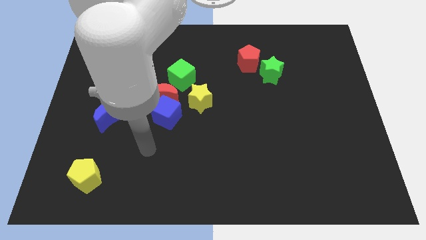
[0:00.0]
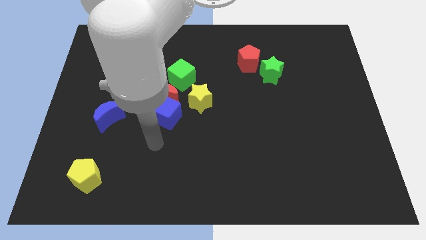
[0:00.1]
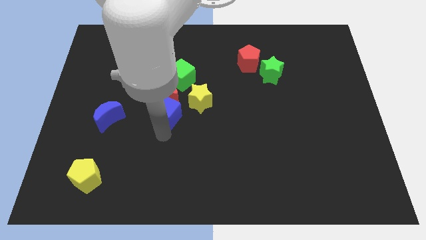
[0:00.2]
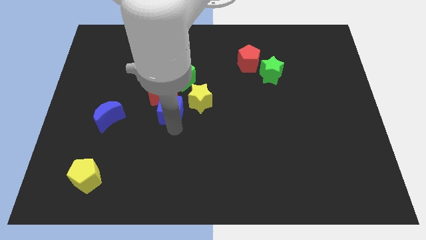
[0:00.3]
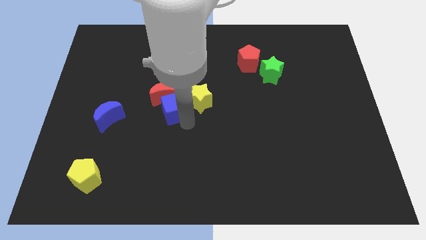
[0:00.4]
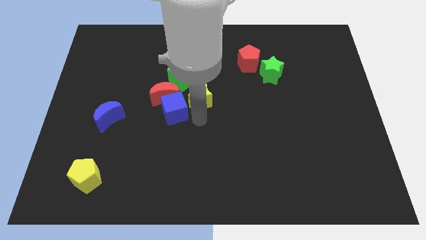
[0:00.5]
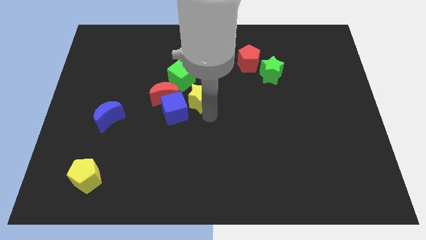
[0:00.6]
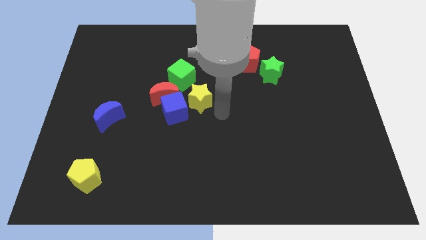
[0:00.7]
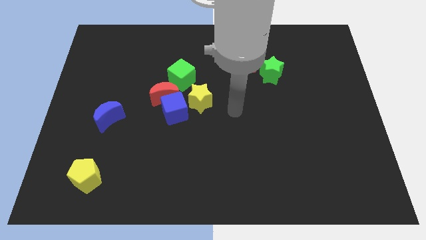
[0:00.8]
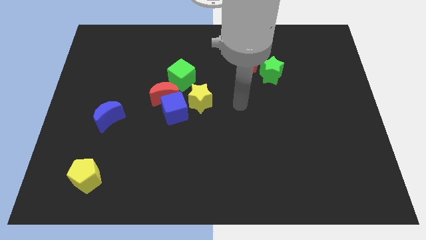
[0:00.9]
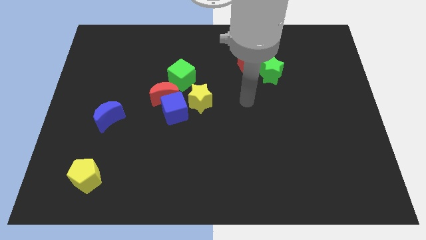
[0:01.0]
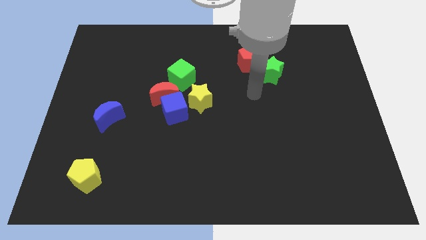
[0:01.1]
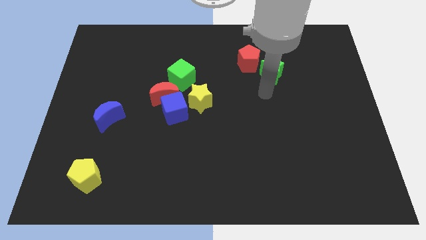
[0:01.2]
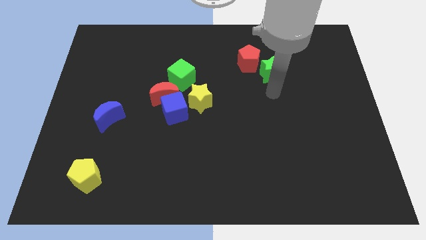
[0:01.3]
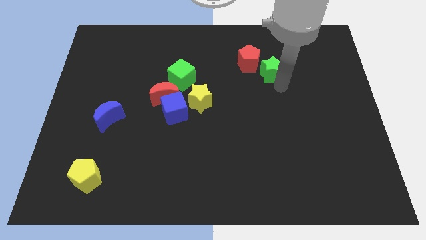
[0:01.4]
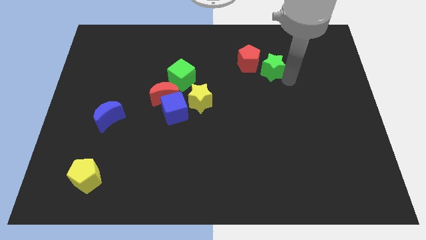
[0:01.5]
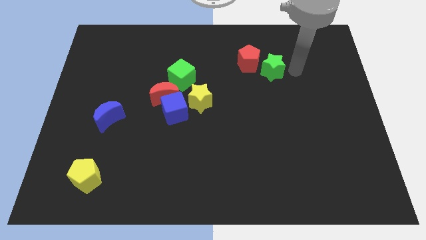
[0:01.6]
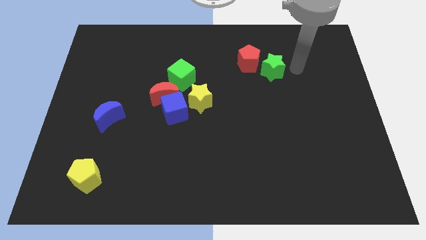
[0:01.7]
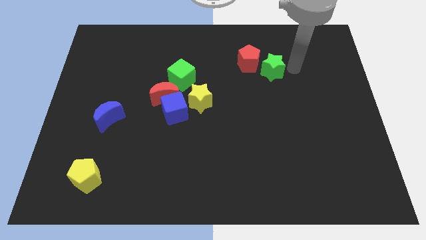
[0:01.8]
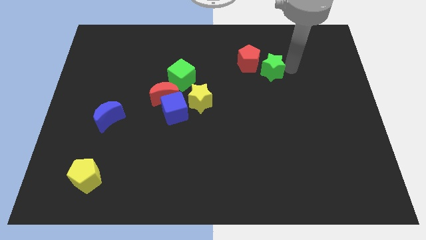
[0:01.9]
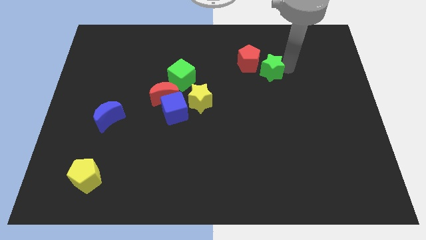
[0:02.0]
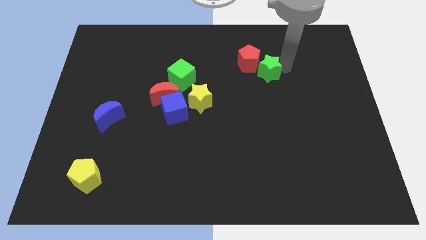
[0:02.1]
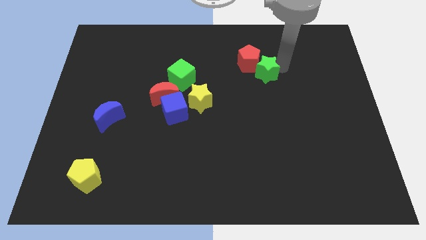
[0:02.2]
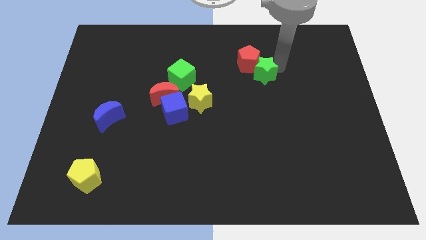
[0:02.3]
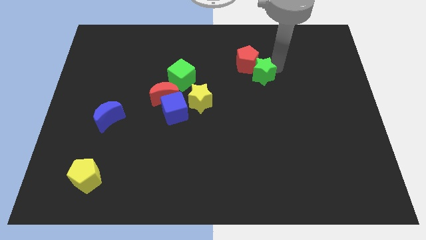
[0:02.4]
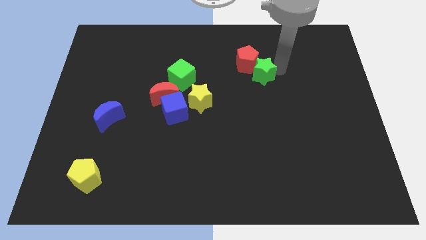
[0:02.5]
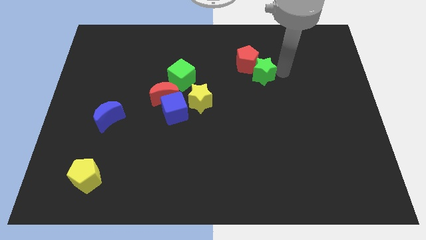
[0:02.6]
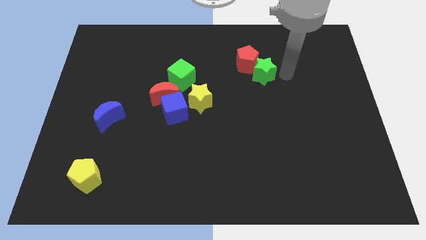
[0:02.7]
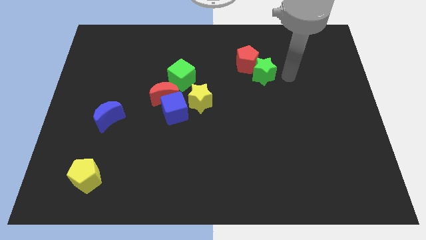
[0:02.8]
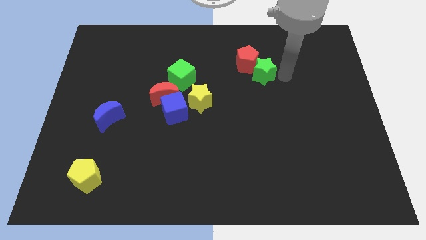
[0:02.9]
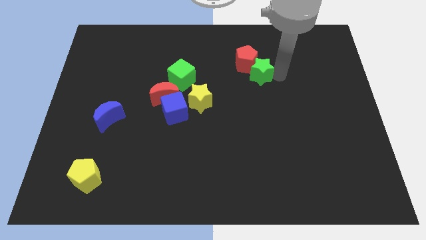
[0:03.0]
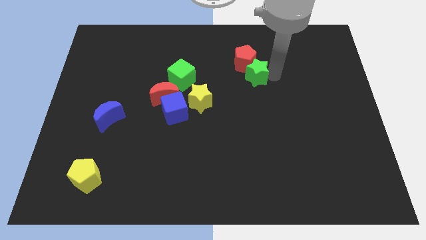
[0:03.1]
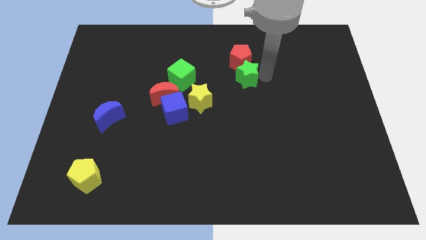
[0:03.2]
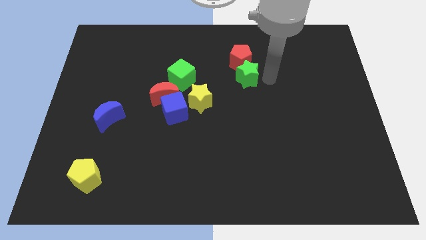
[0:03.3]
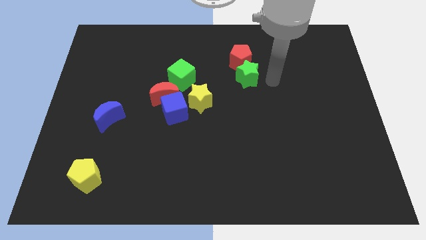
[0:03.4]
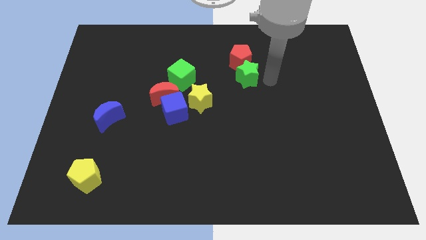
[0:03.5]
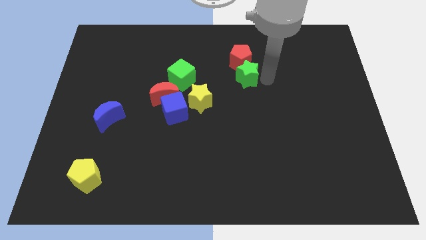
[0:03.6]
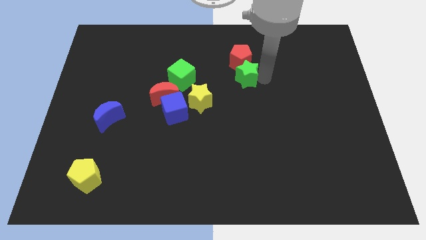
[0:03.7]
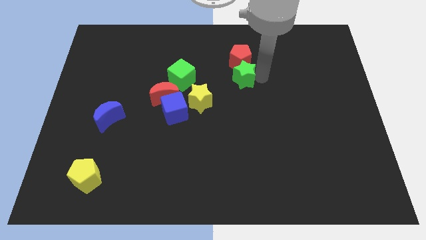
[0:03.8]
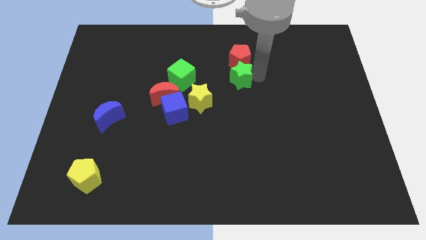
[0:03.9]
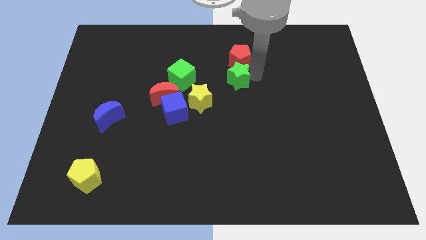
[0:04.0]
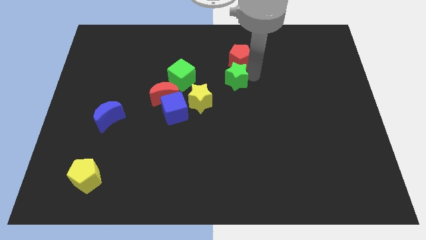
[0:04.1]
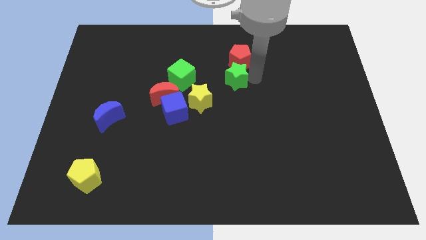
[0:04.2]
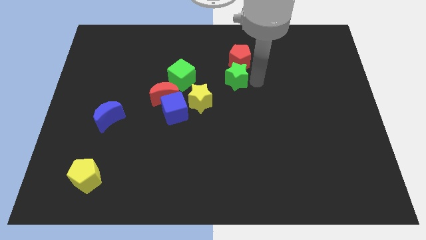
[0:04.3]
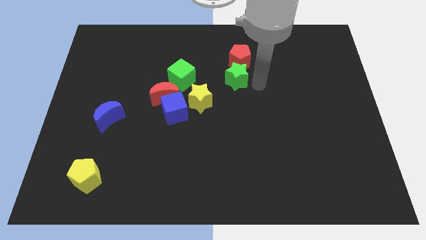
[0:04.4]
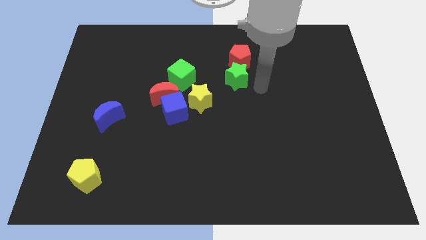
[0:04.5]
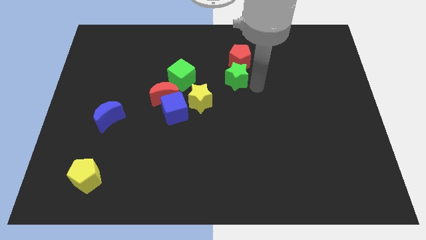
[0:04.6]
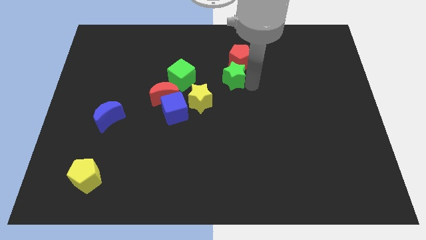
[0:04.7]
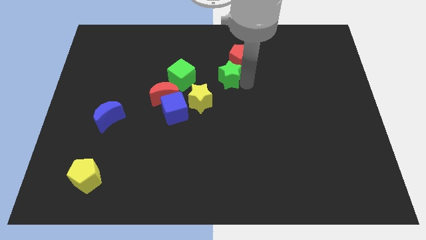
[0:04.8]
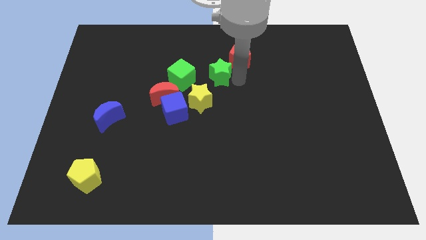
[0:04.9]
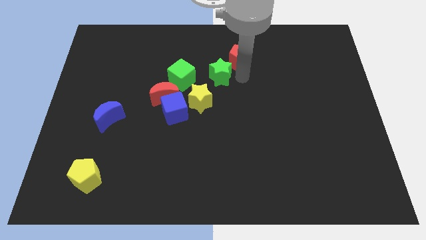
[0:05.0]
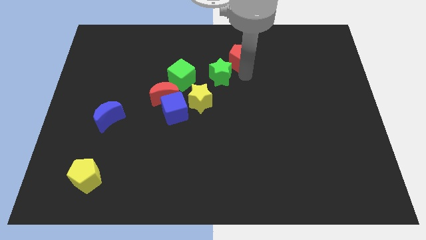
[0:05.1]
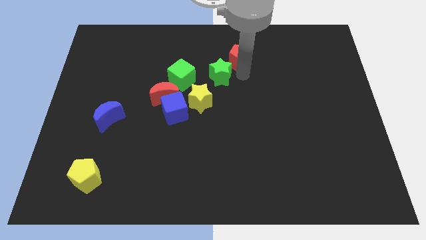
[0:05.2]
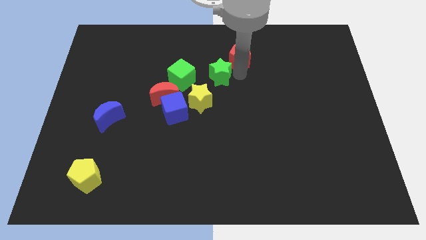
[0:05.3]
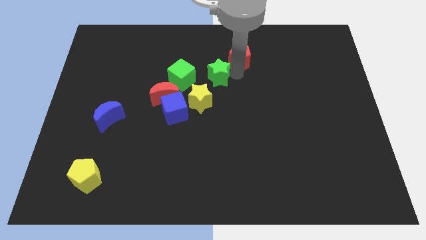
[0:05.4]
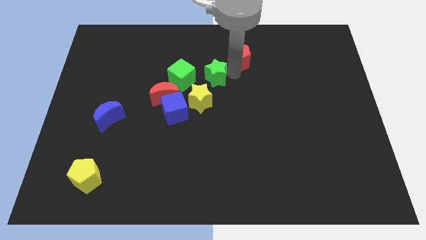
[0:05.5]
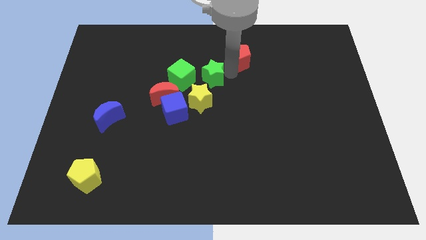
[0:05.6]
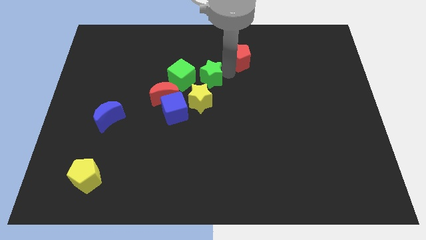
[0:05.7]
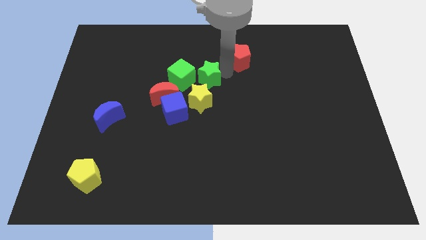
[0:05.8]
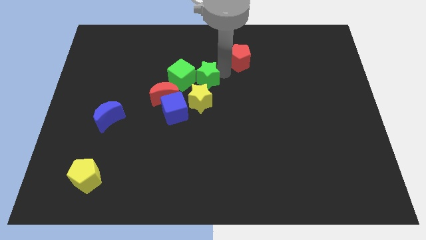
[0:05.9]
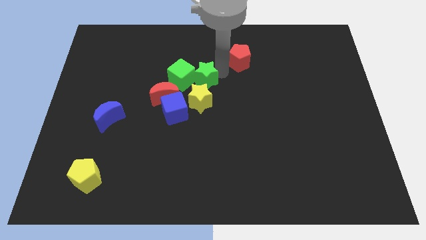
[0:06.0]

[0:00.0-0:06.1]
slide the green star to the green cube

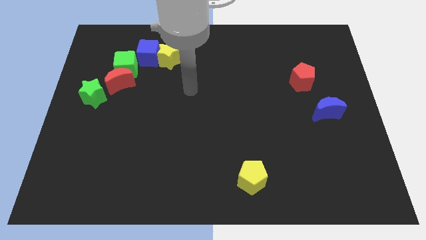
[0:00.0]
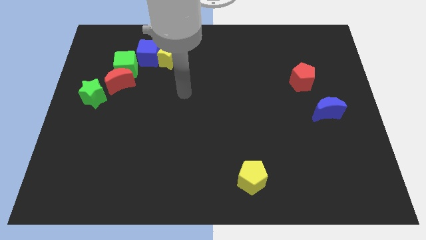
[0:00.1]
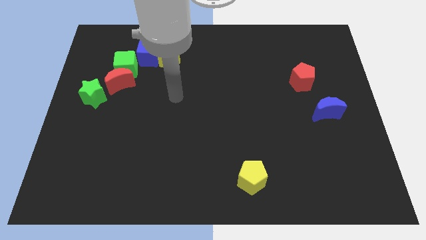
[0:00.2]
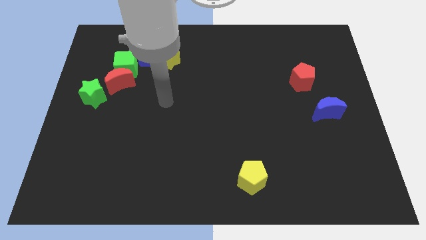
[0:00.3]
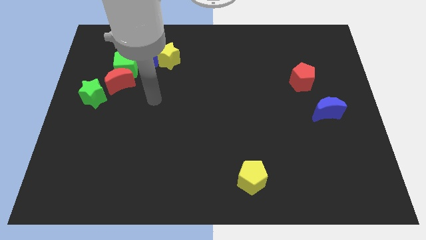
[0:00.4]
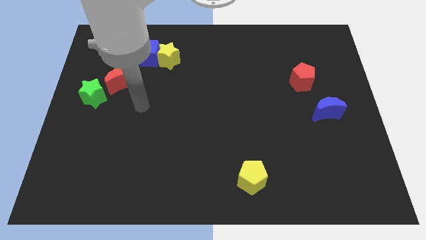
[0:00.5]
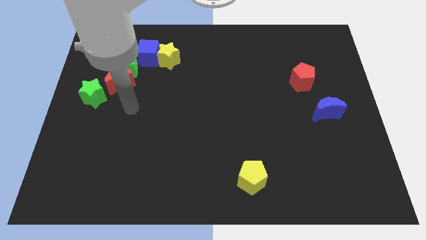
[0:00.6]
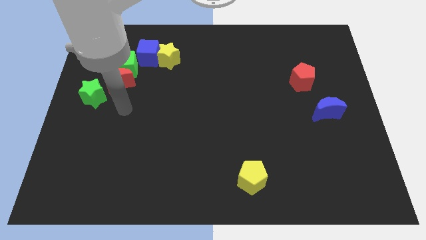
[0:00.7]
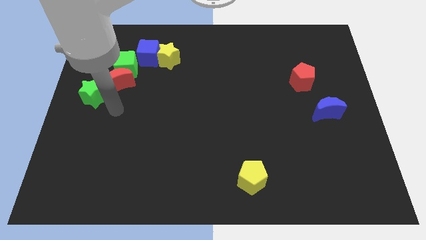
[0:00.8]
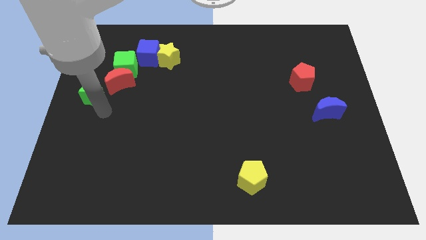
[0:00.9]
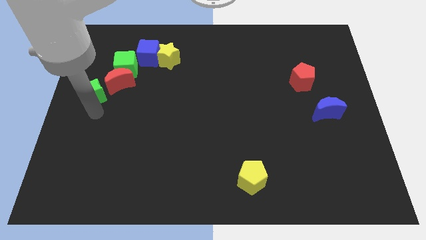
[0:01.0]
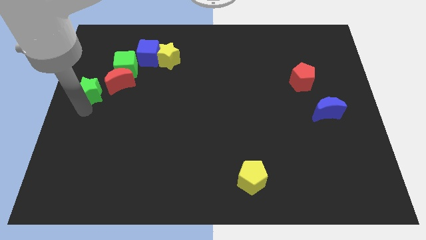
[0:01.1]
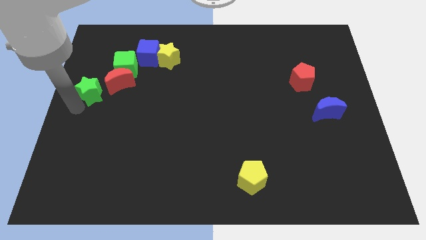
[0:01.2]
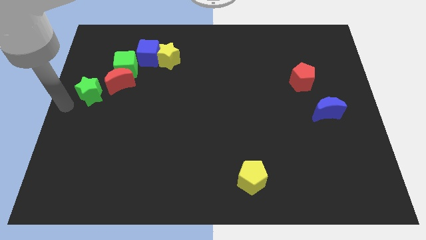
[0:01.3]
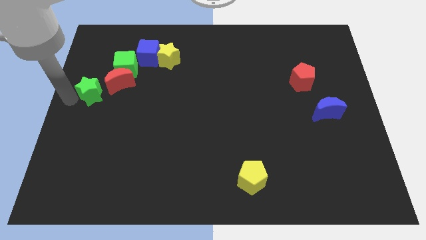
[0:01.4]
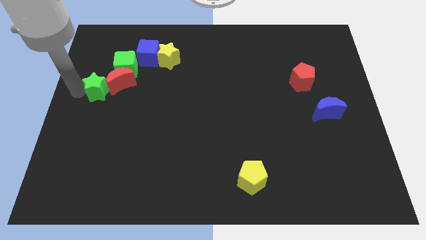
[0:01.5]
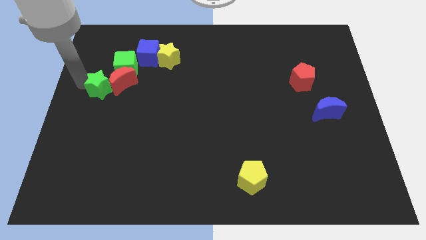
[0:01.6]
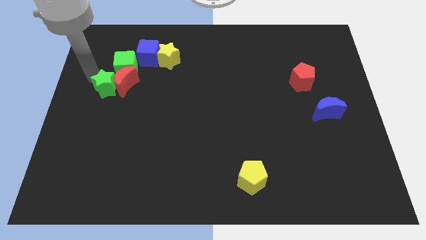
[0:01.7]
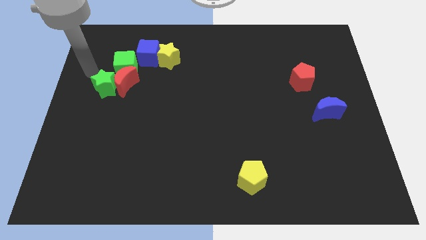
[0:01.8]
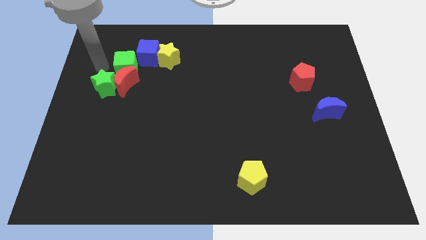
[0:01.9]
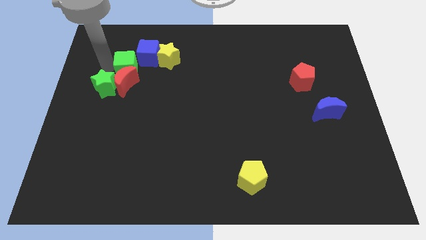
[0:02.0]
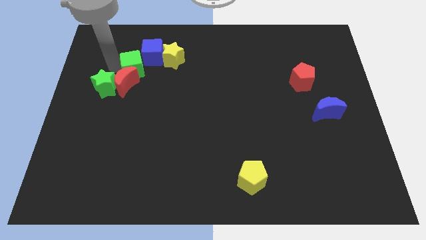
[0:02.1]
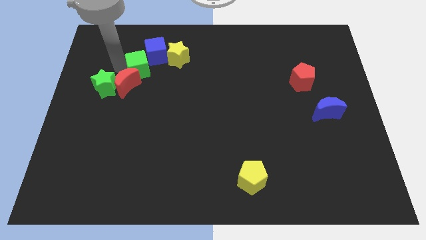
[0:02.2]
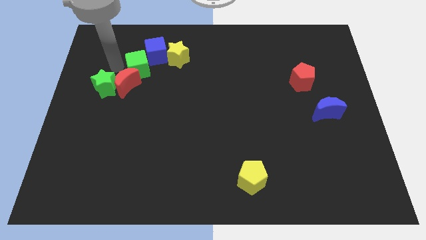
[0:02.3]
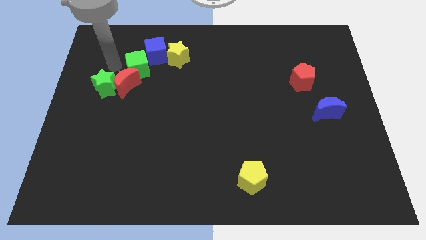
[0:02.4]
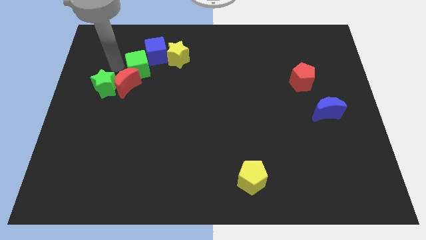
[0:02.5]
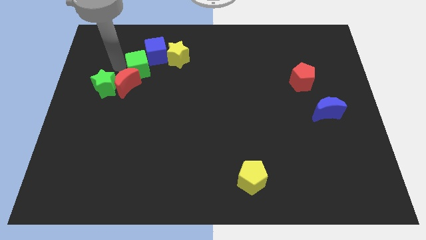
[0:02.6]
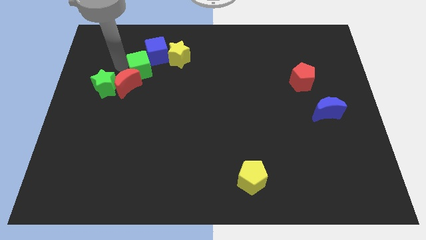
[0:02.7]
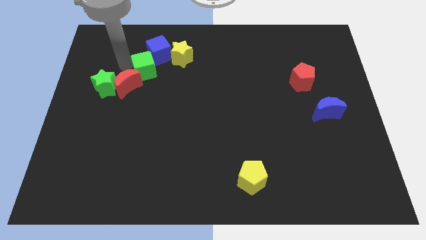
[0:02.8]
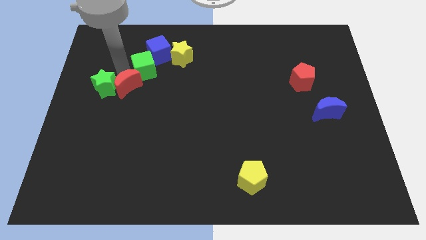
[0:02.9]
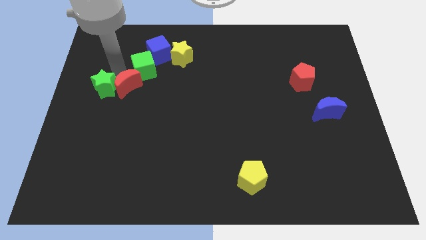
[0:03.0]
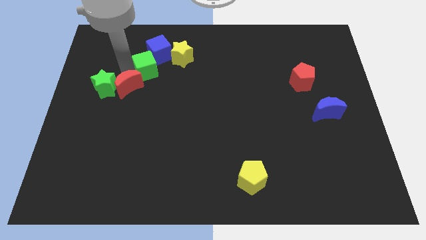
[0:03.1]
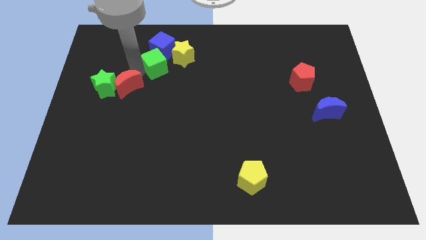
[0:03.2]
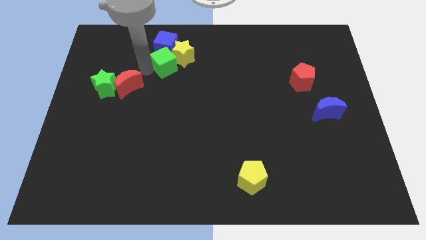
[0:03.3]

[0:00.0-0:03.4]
put the green cube to the yellow star
